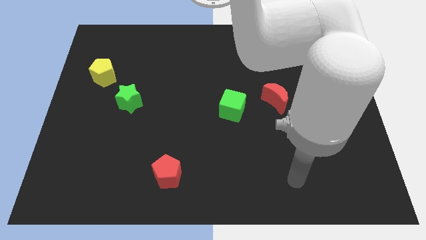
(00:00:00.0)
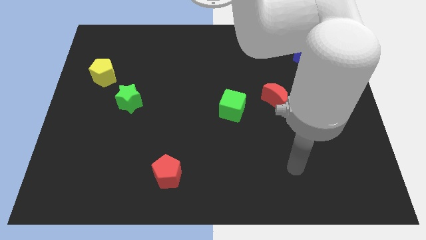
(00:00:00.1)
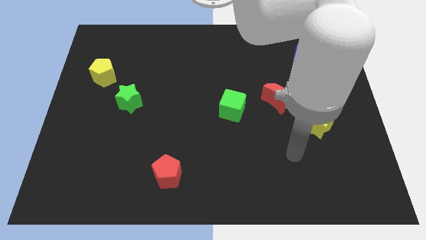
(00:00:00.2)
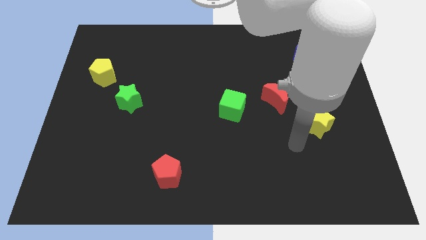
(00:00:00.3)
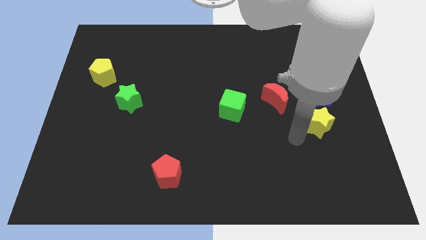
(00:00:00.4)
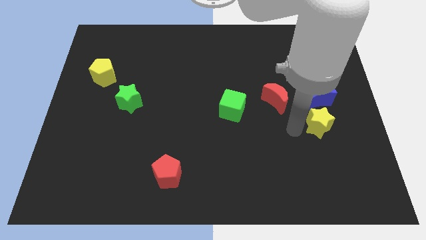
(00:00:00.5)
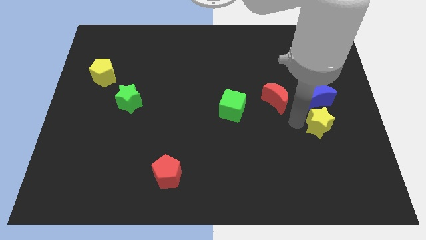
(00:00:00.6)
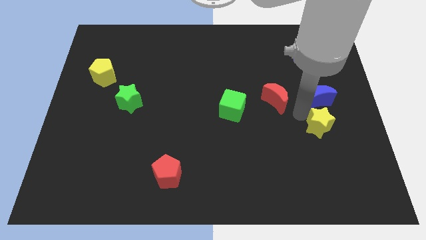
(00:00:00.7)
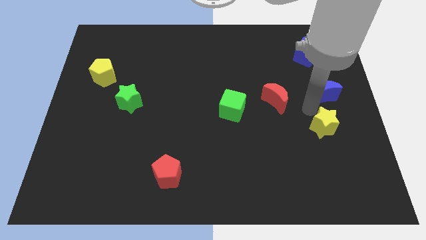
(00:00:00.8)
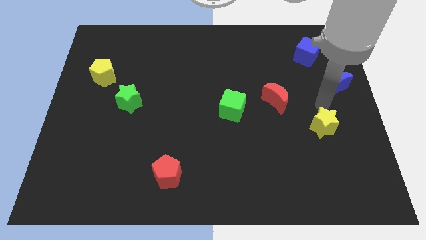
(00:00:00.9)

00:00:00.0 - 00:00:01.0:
move the yellow star away from the blue moon

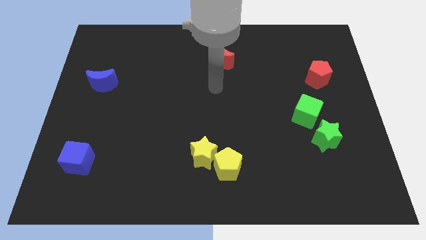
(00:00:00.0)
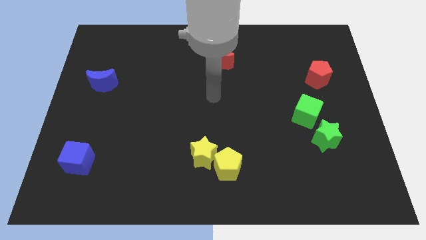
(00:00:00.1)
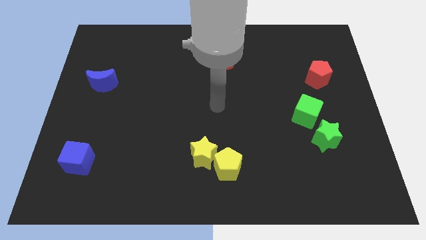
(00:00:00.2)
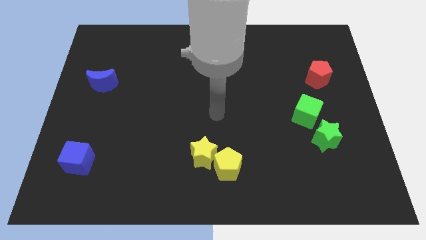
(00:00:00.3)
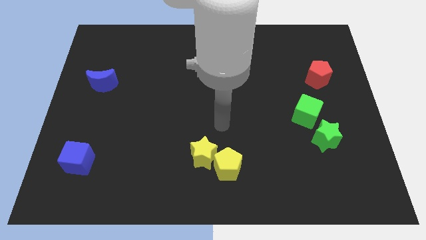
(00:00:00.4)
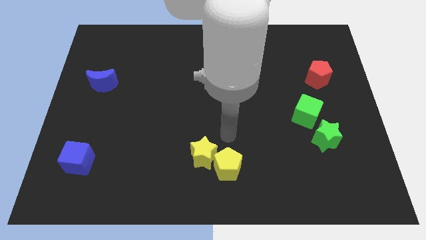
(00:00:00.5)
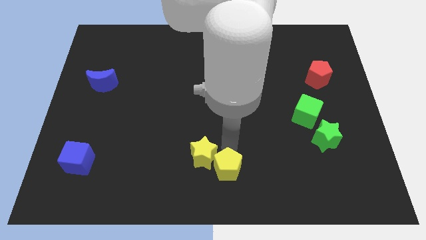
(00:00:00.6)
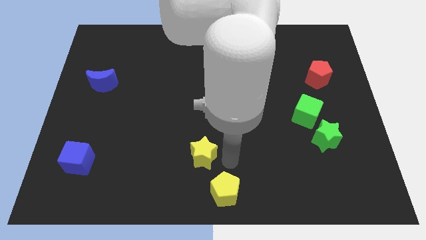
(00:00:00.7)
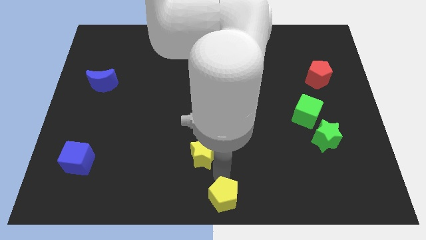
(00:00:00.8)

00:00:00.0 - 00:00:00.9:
move the yellow star away from the yellow pentagon

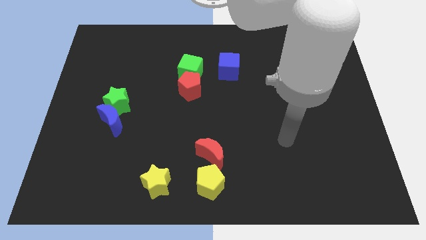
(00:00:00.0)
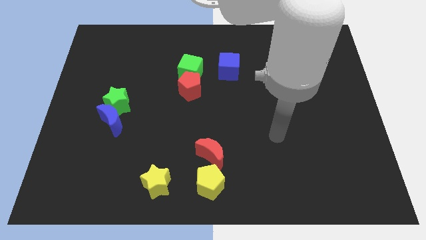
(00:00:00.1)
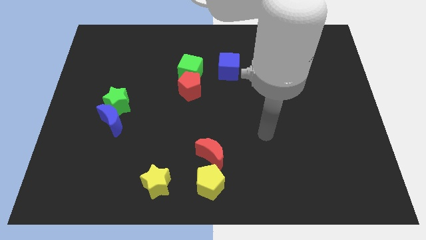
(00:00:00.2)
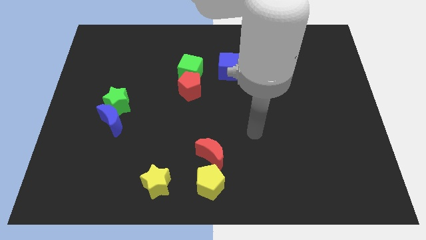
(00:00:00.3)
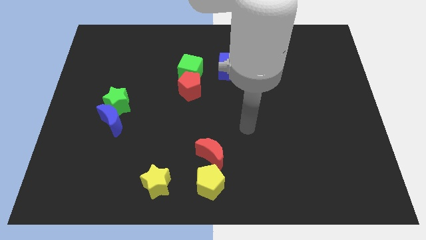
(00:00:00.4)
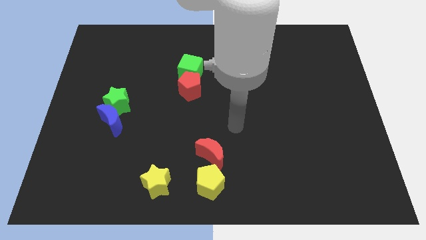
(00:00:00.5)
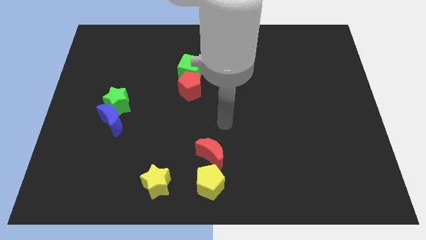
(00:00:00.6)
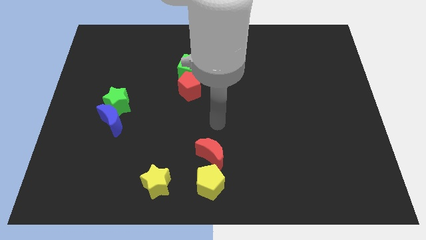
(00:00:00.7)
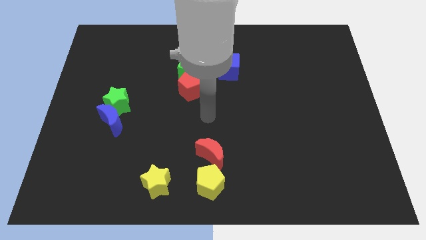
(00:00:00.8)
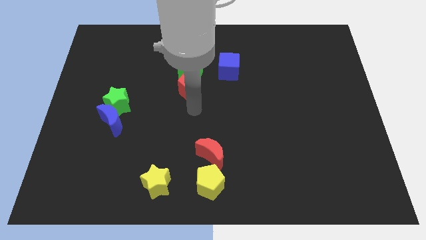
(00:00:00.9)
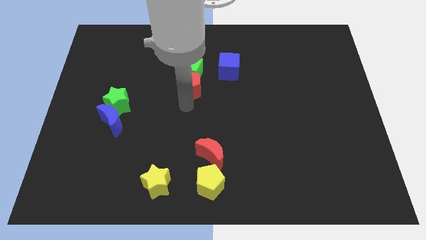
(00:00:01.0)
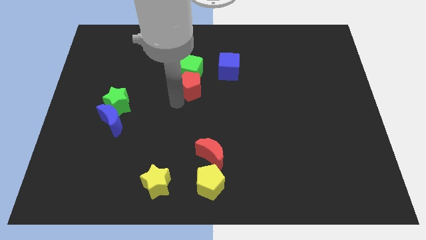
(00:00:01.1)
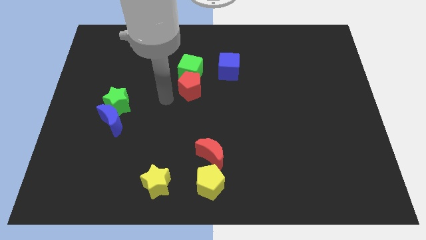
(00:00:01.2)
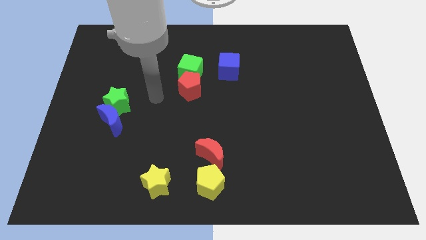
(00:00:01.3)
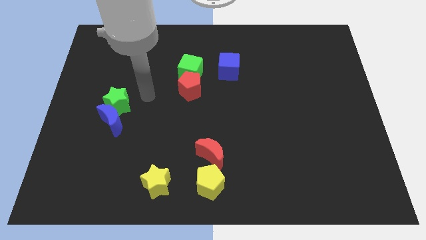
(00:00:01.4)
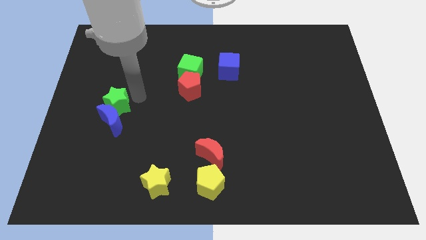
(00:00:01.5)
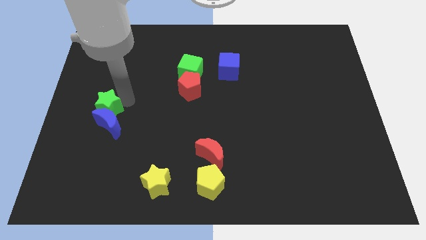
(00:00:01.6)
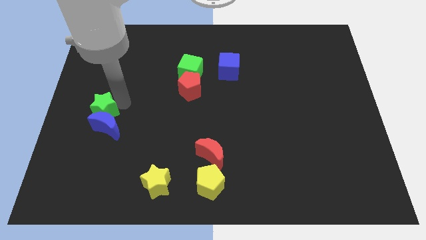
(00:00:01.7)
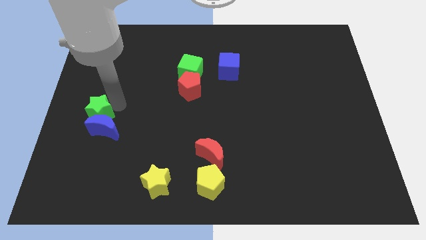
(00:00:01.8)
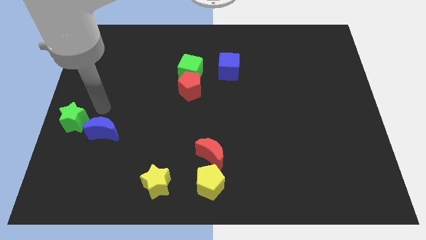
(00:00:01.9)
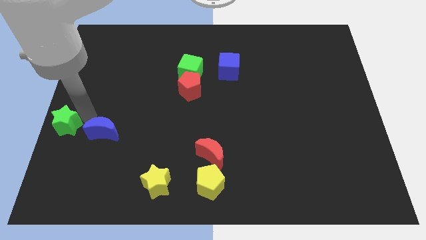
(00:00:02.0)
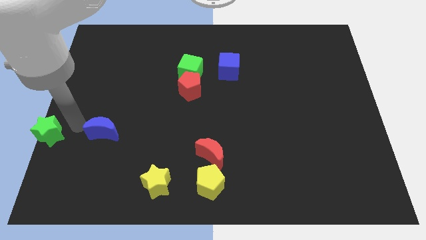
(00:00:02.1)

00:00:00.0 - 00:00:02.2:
move the blue moon away from the green star

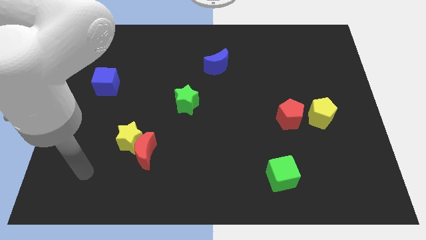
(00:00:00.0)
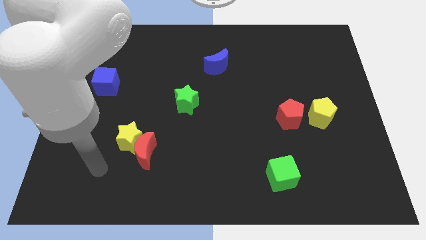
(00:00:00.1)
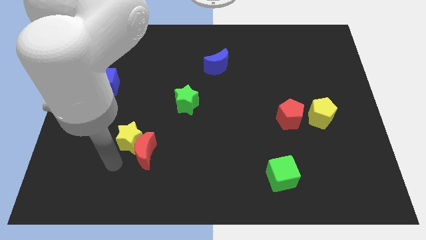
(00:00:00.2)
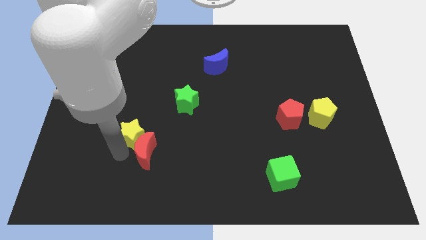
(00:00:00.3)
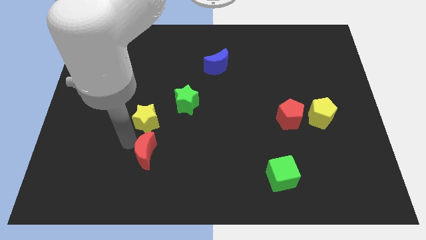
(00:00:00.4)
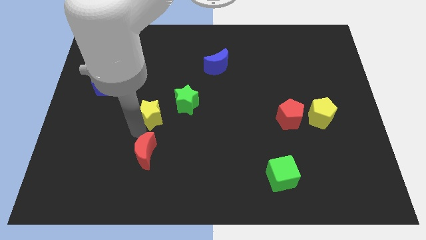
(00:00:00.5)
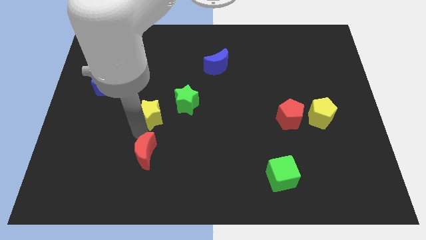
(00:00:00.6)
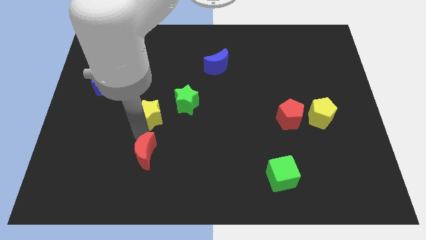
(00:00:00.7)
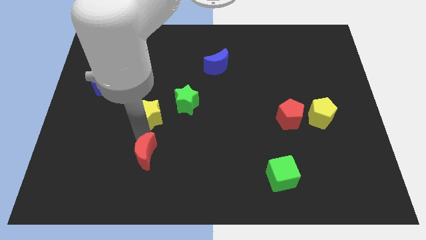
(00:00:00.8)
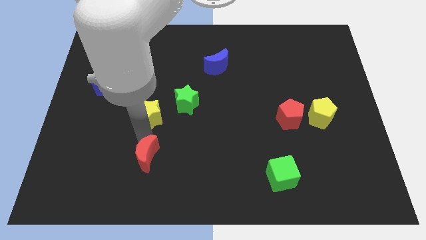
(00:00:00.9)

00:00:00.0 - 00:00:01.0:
separate the red moon from the yellow star

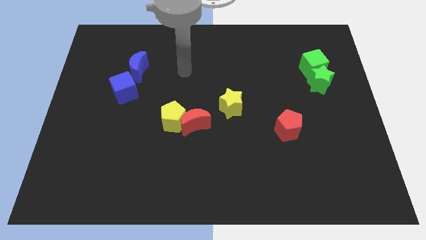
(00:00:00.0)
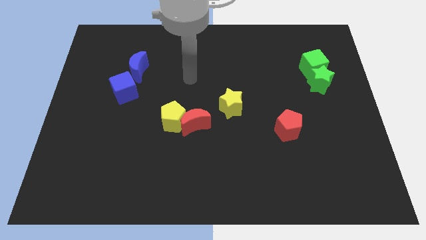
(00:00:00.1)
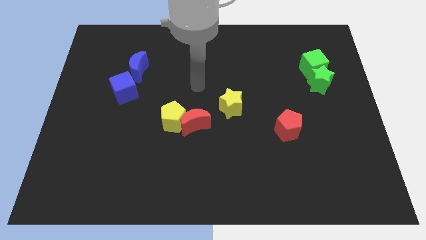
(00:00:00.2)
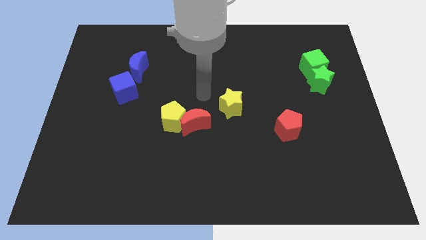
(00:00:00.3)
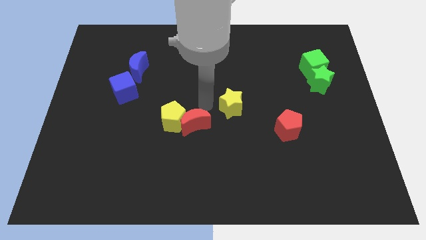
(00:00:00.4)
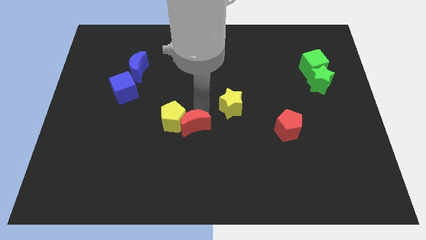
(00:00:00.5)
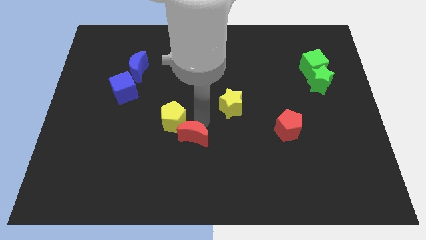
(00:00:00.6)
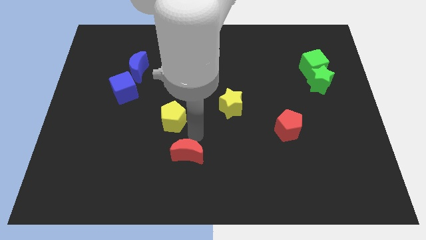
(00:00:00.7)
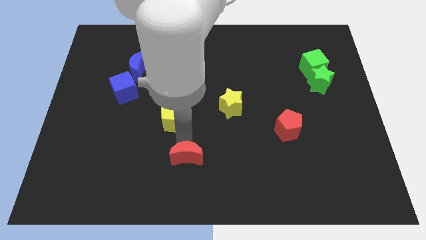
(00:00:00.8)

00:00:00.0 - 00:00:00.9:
separate the yellow pentagon from the red moon

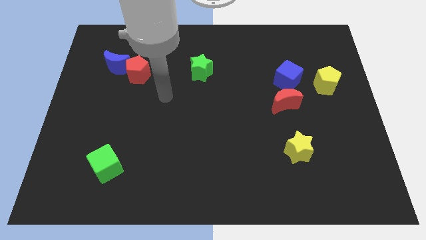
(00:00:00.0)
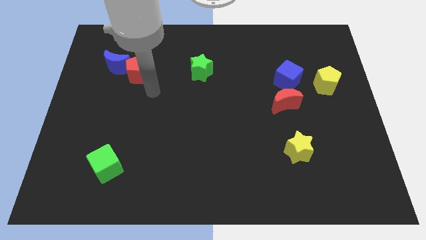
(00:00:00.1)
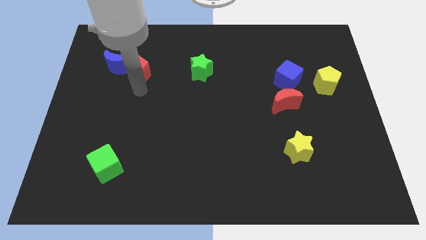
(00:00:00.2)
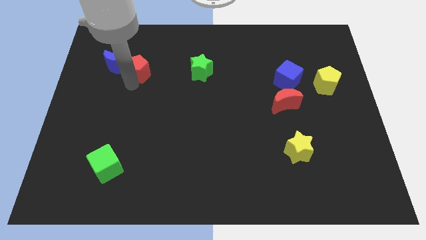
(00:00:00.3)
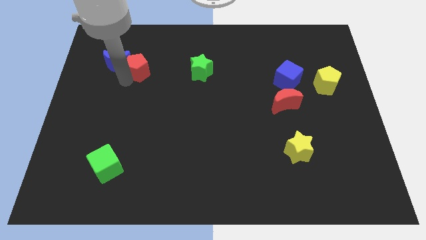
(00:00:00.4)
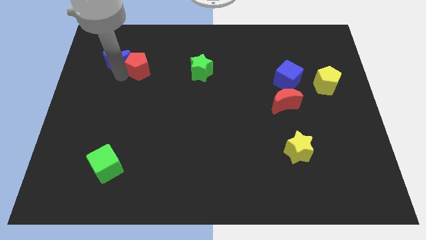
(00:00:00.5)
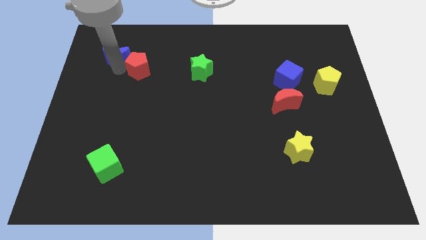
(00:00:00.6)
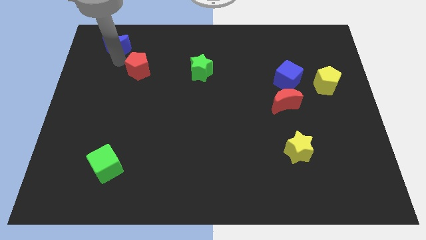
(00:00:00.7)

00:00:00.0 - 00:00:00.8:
separate the red pentagon from the blue moon

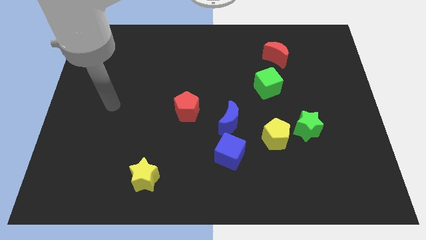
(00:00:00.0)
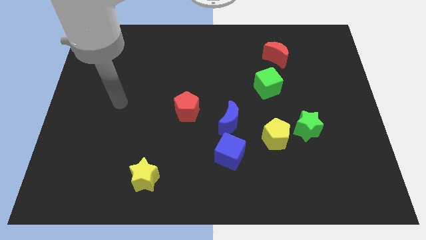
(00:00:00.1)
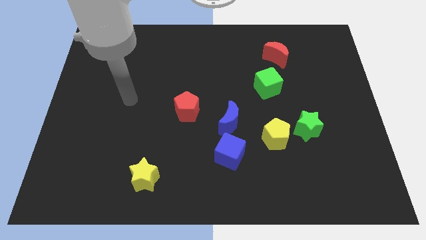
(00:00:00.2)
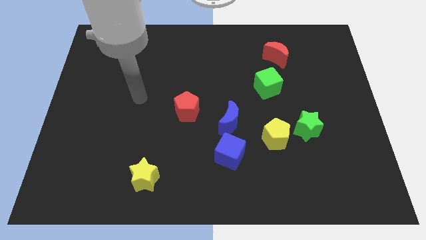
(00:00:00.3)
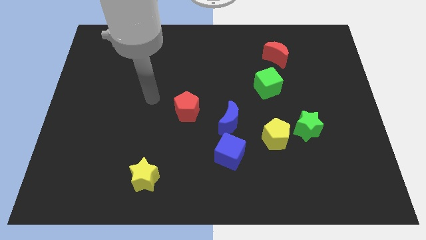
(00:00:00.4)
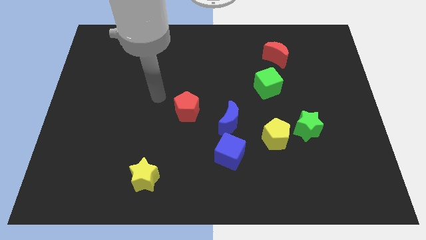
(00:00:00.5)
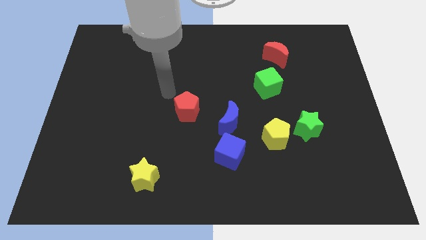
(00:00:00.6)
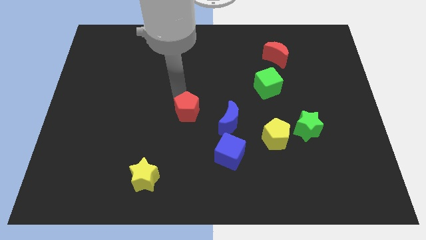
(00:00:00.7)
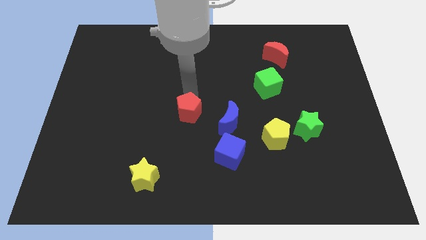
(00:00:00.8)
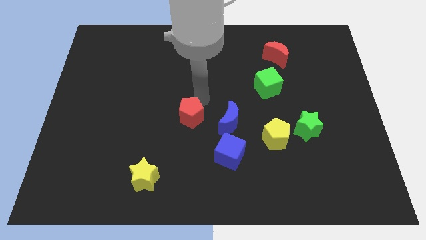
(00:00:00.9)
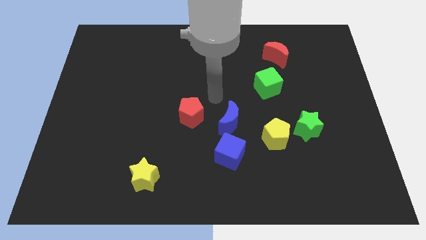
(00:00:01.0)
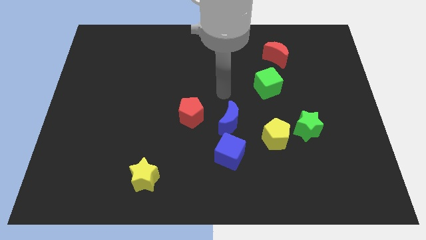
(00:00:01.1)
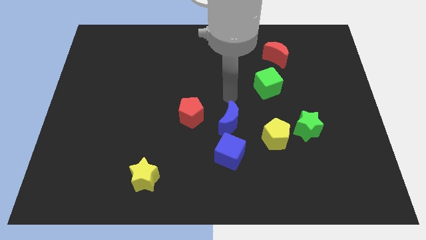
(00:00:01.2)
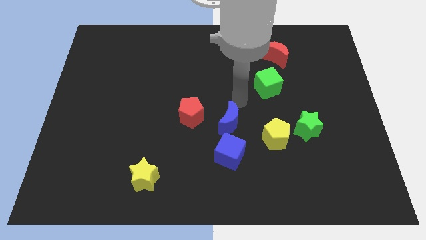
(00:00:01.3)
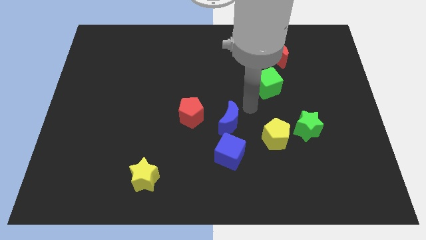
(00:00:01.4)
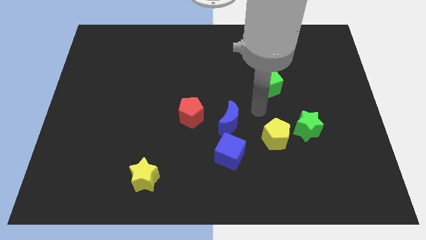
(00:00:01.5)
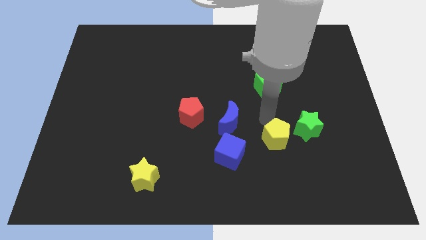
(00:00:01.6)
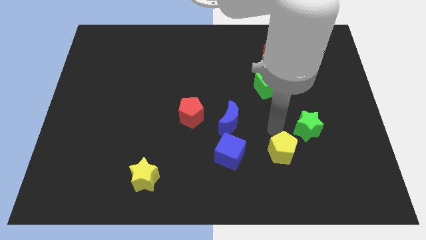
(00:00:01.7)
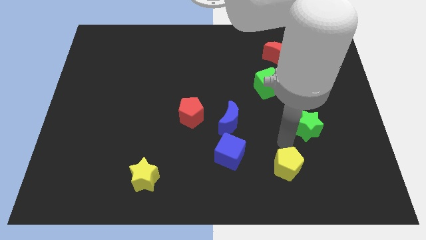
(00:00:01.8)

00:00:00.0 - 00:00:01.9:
move the green star away from the yellow pentagon

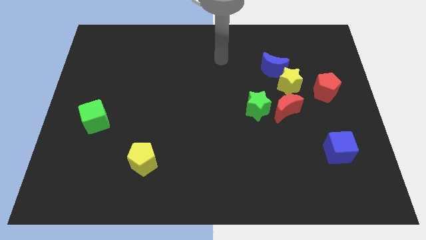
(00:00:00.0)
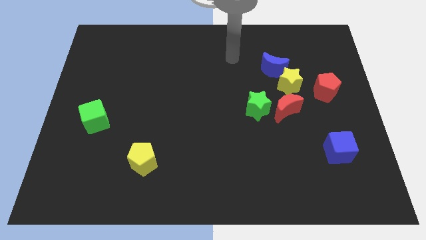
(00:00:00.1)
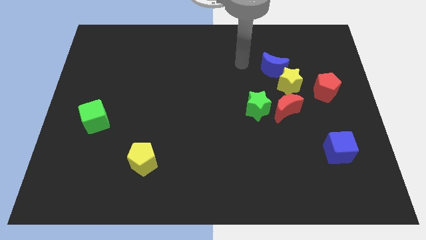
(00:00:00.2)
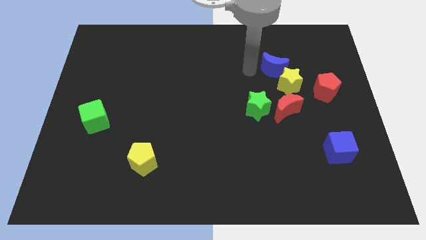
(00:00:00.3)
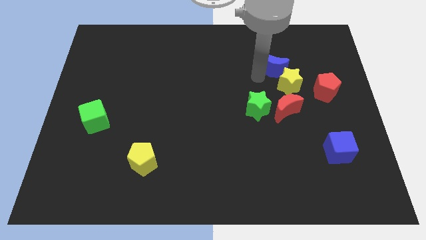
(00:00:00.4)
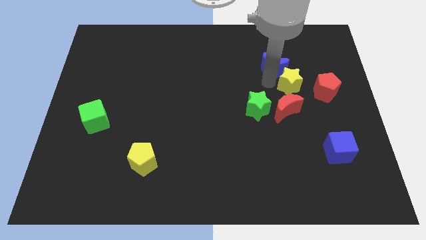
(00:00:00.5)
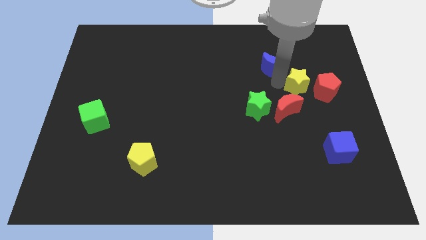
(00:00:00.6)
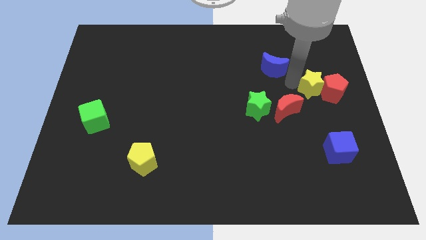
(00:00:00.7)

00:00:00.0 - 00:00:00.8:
pull the blue moon apart from the yellow star
